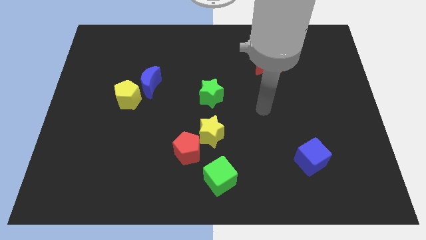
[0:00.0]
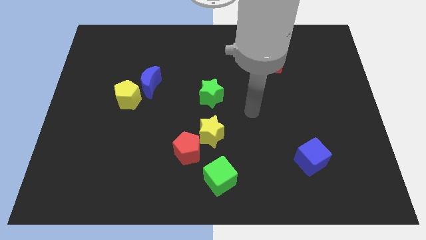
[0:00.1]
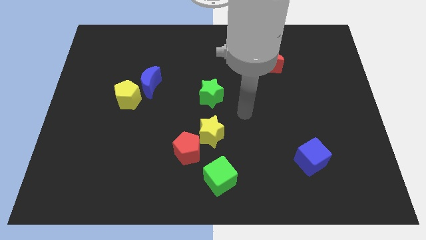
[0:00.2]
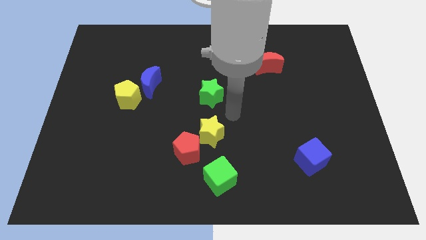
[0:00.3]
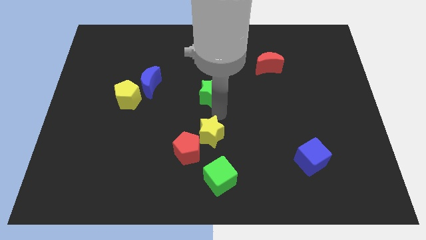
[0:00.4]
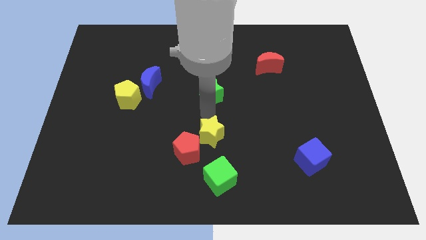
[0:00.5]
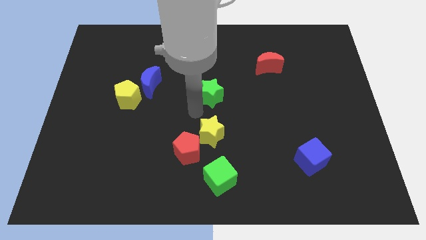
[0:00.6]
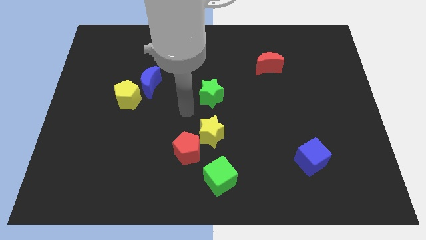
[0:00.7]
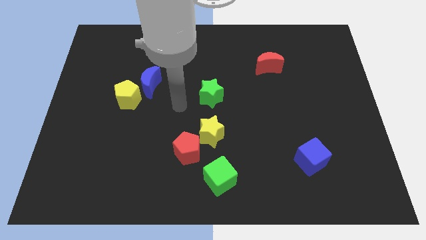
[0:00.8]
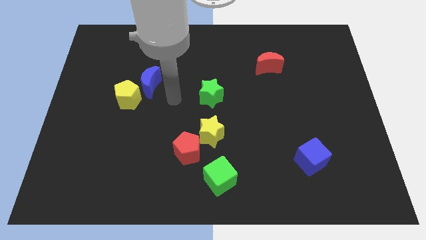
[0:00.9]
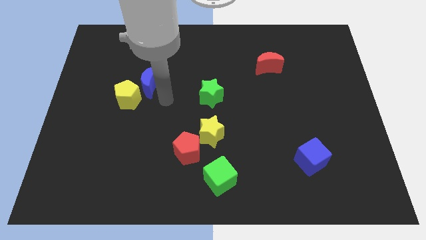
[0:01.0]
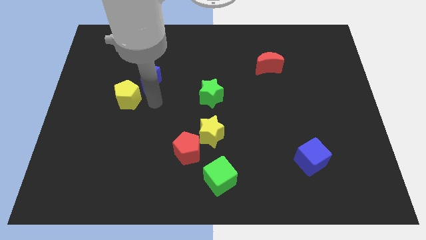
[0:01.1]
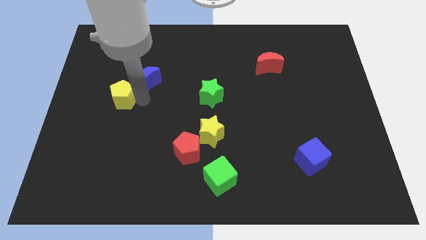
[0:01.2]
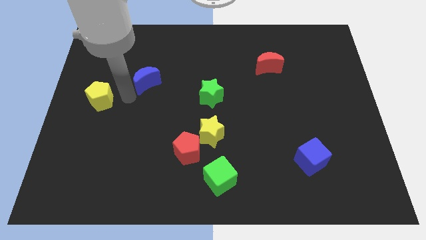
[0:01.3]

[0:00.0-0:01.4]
pull the blue moon apart from the yellow pentagon

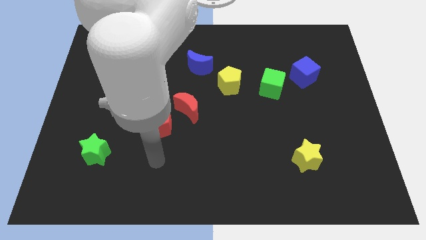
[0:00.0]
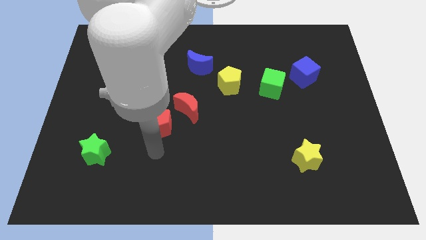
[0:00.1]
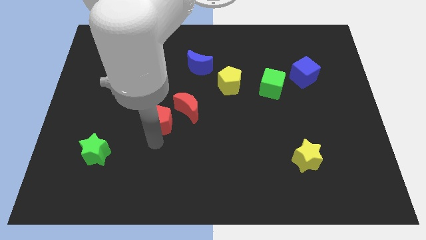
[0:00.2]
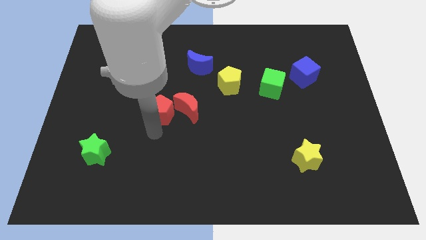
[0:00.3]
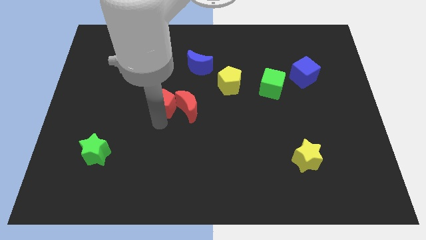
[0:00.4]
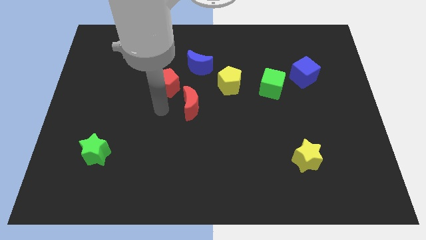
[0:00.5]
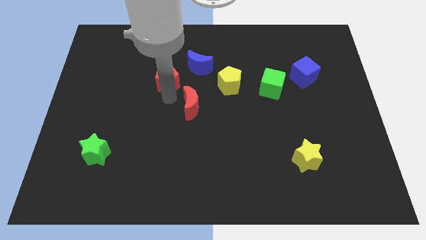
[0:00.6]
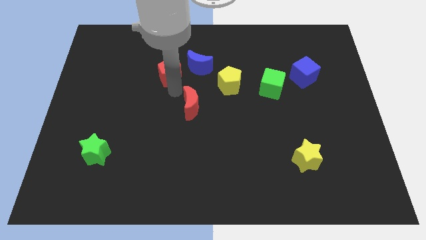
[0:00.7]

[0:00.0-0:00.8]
move the red moon away from the red pentagon

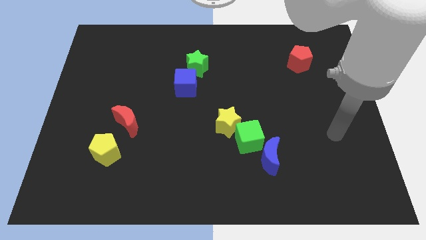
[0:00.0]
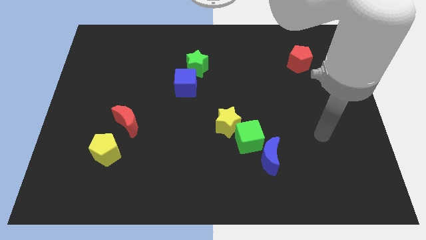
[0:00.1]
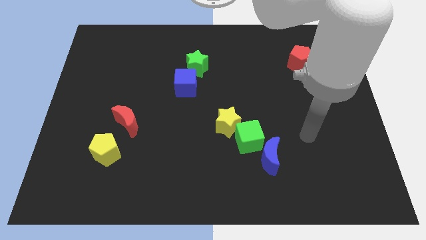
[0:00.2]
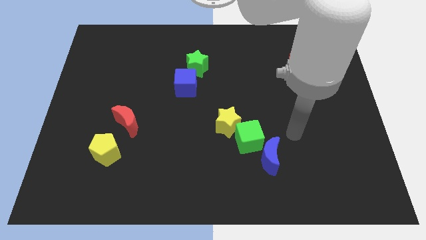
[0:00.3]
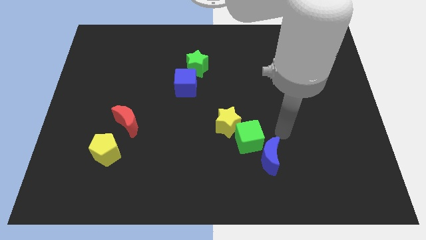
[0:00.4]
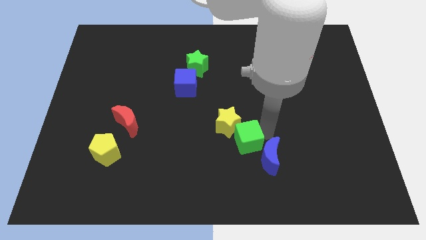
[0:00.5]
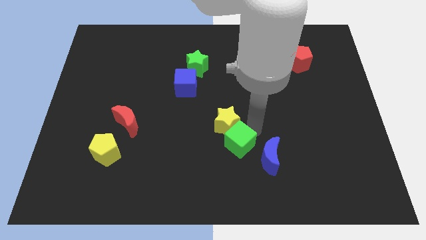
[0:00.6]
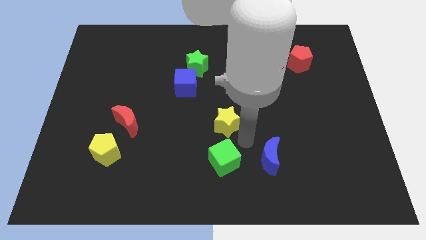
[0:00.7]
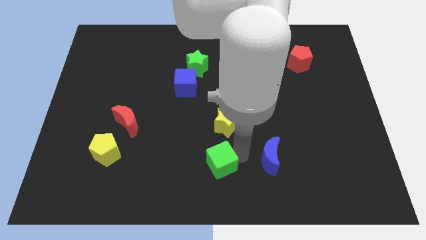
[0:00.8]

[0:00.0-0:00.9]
separate the blue moon from the green cube

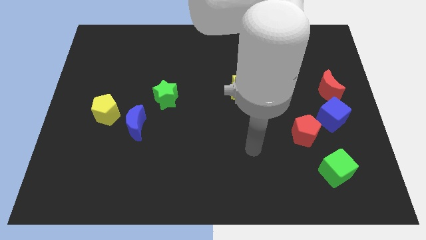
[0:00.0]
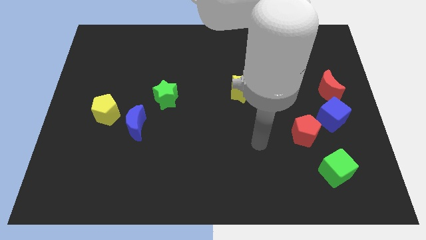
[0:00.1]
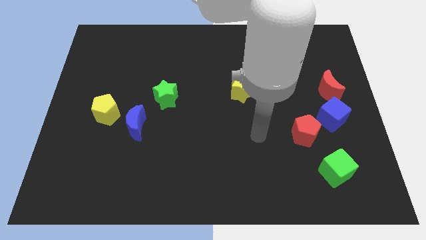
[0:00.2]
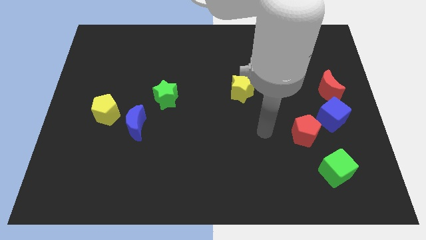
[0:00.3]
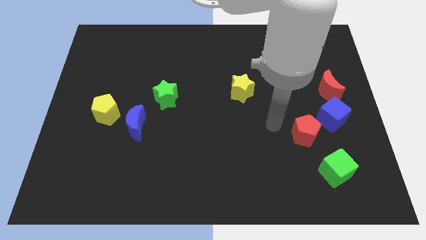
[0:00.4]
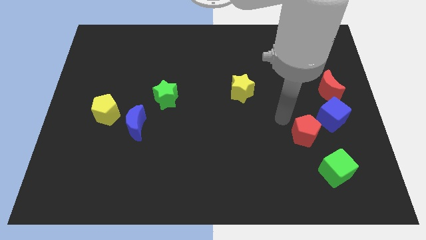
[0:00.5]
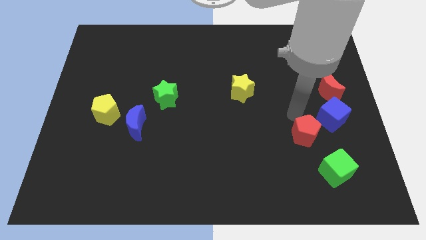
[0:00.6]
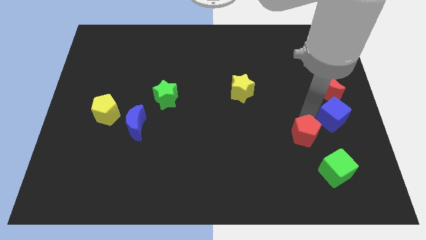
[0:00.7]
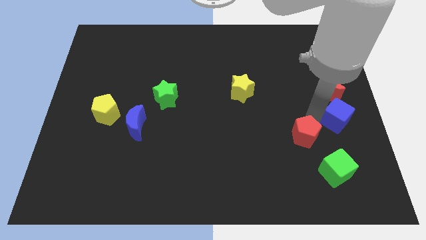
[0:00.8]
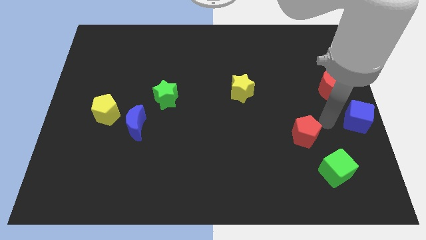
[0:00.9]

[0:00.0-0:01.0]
separate the red pentagon from the blue cube

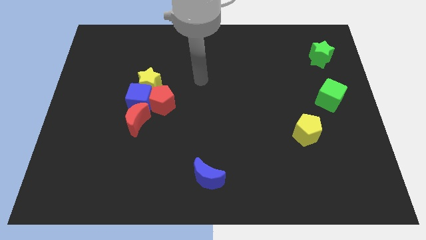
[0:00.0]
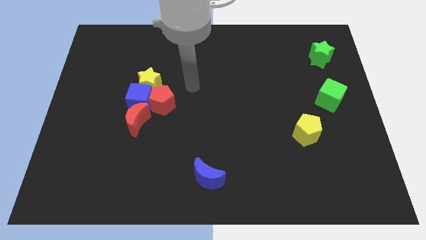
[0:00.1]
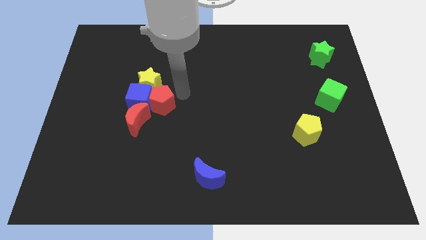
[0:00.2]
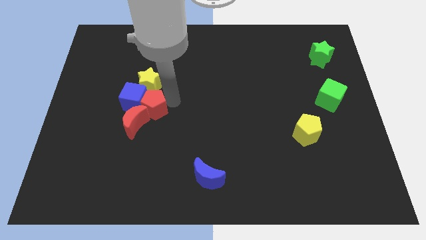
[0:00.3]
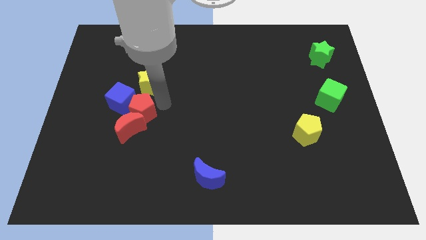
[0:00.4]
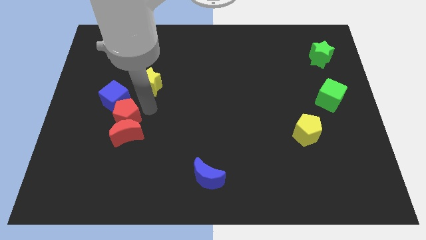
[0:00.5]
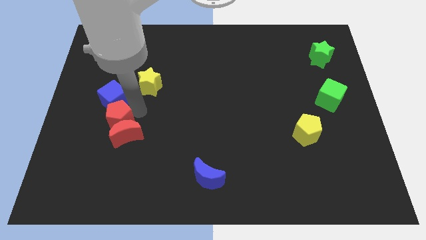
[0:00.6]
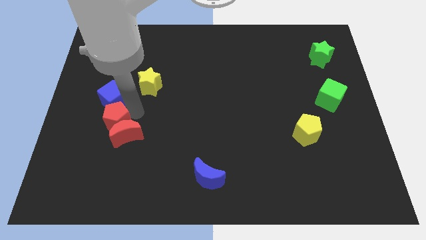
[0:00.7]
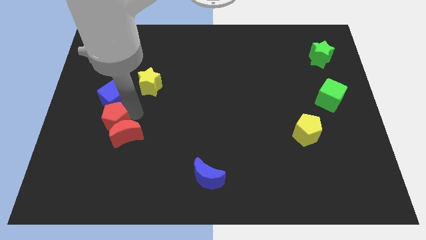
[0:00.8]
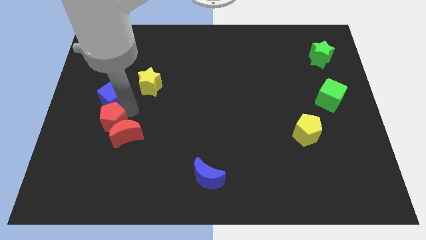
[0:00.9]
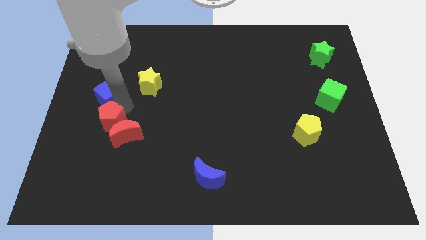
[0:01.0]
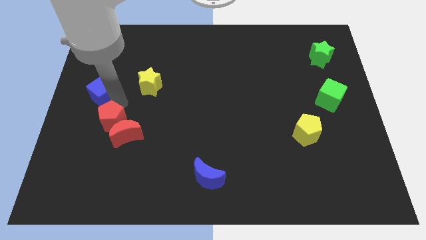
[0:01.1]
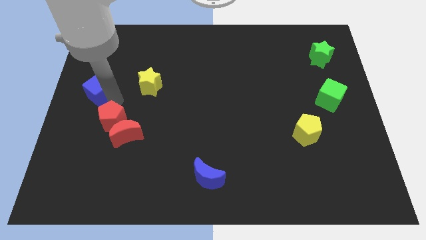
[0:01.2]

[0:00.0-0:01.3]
move the blue cube away from the red pentagon, yellow star, and red moon

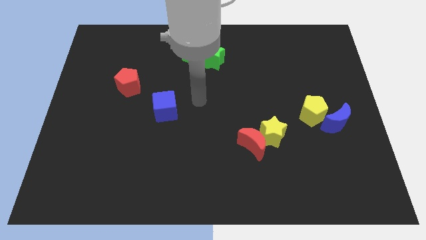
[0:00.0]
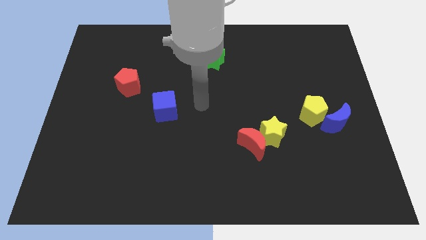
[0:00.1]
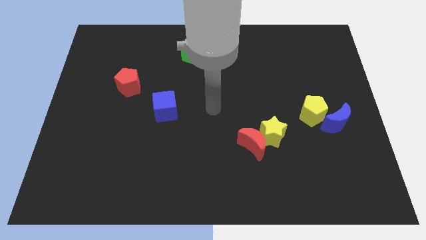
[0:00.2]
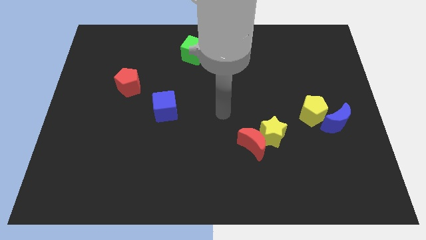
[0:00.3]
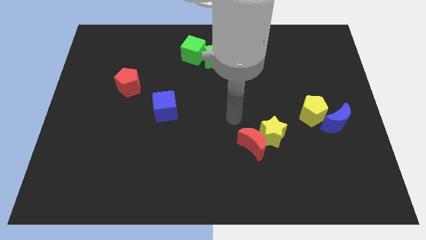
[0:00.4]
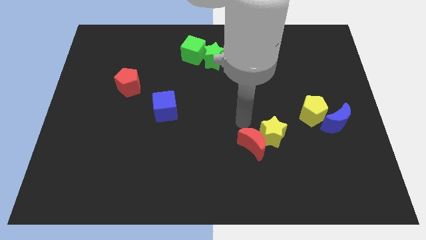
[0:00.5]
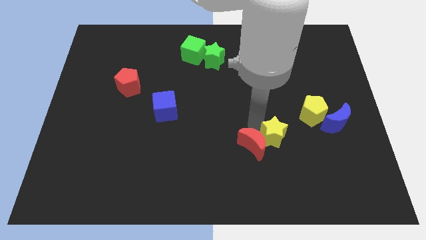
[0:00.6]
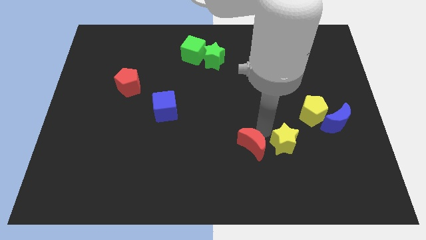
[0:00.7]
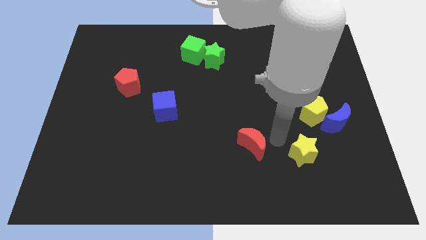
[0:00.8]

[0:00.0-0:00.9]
pull the red moon apart from the yellow star

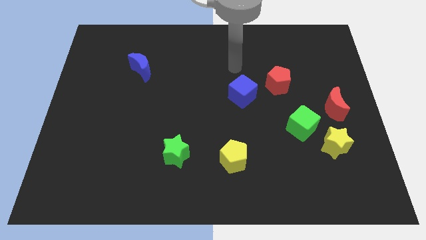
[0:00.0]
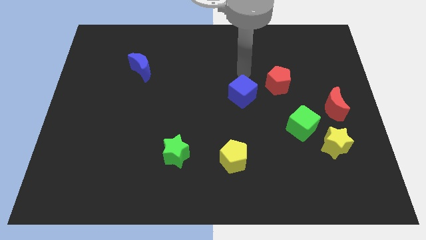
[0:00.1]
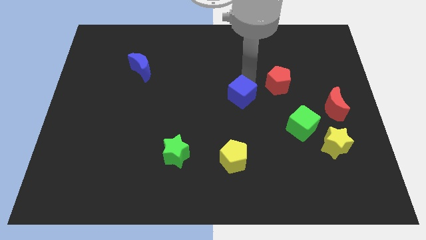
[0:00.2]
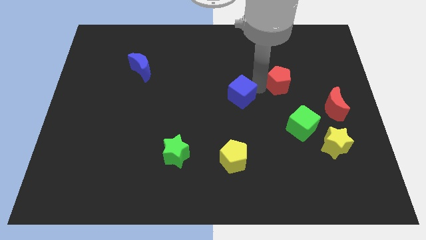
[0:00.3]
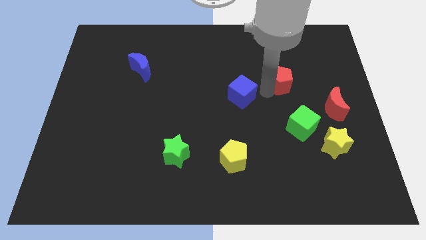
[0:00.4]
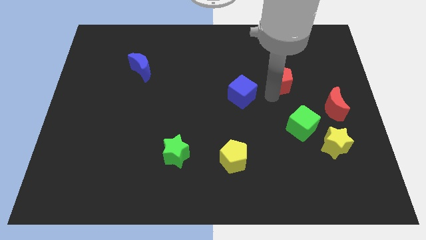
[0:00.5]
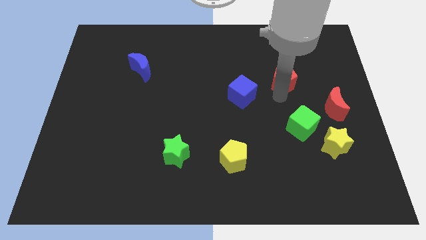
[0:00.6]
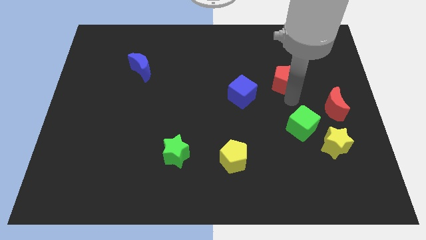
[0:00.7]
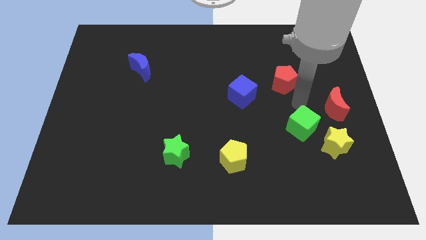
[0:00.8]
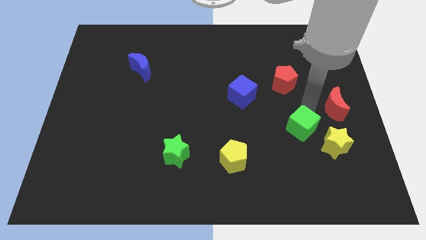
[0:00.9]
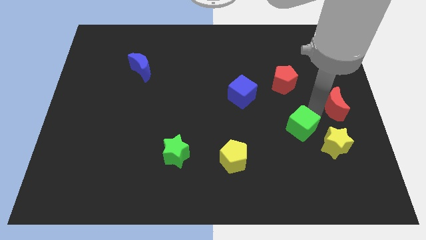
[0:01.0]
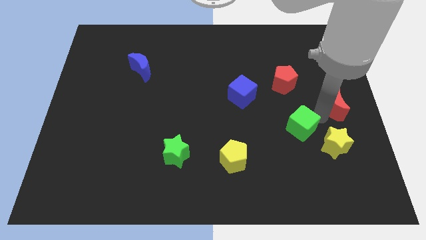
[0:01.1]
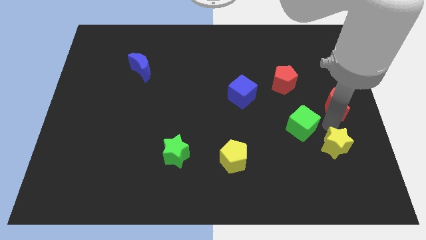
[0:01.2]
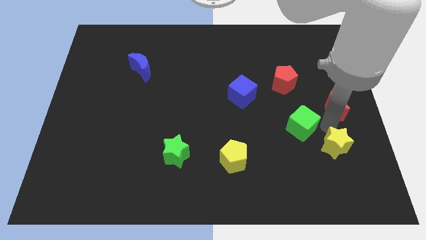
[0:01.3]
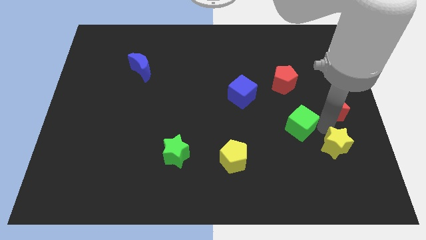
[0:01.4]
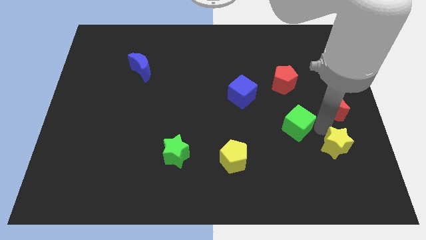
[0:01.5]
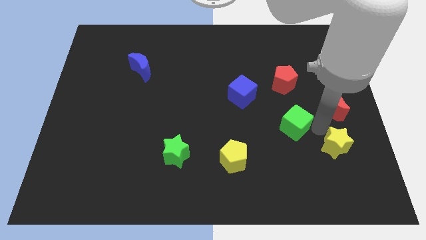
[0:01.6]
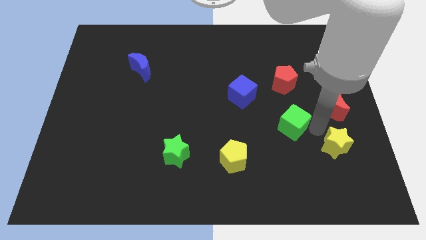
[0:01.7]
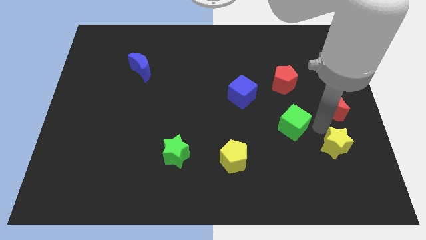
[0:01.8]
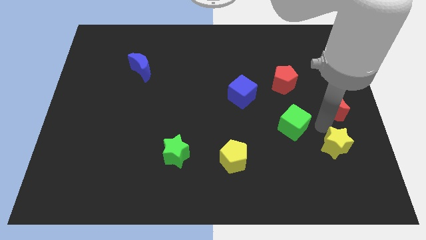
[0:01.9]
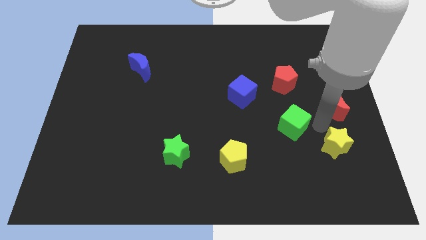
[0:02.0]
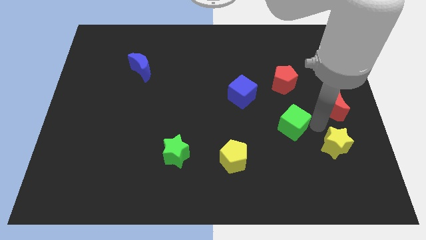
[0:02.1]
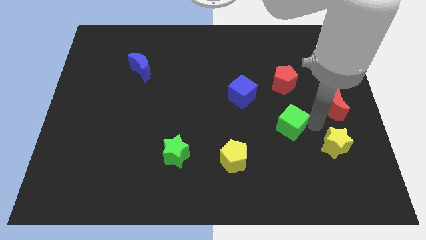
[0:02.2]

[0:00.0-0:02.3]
separate the green cube from the yellow star and red moon

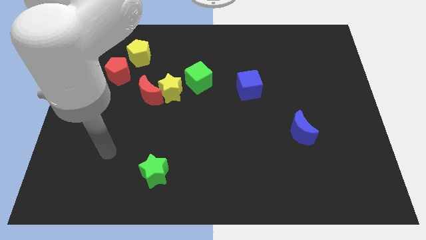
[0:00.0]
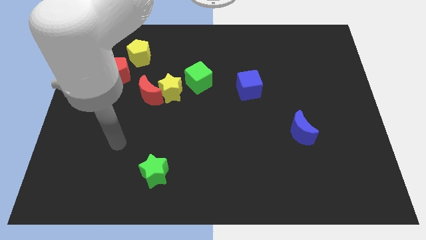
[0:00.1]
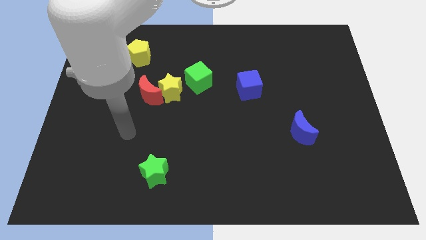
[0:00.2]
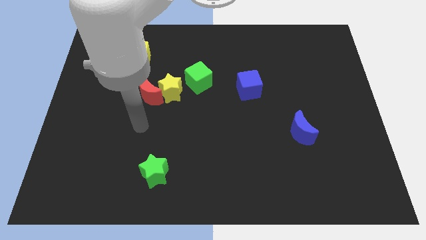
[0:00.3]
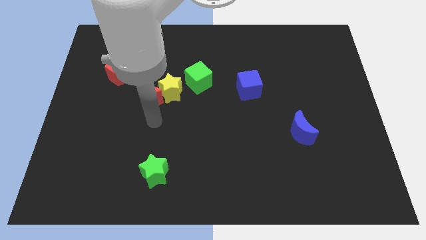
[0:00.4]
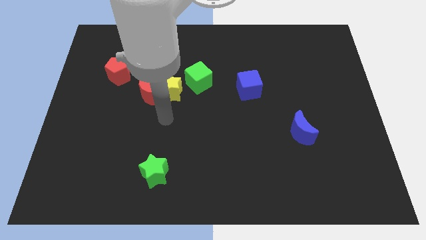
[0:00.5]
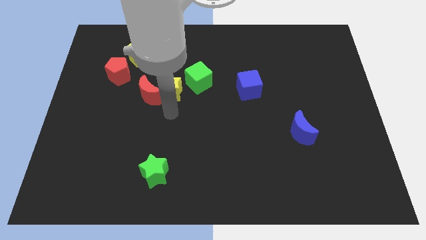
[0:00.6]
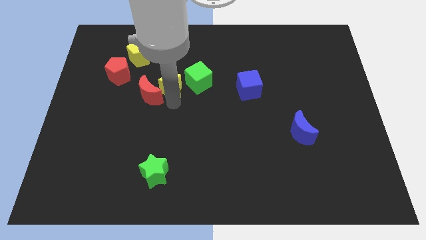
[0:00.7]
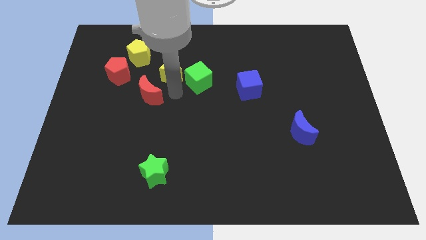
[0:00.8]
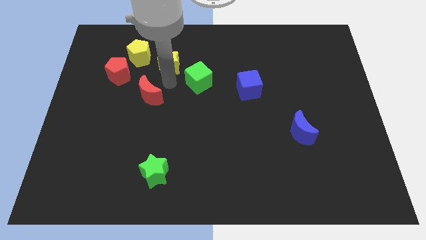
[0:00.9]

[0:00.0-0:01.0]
move the red moon away from the yellow star
